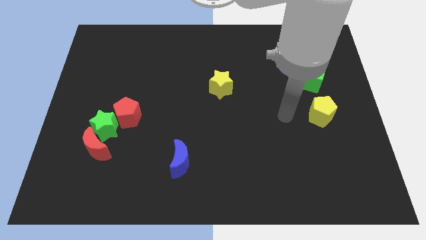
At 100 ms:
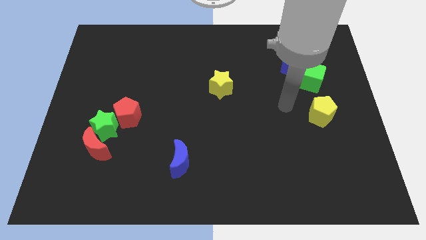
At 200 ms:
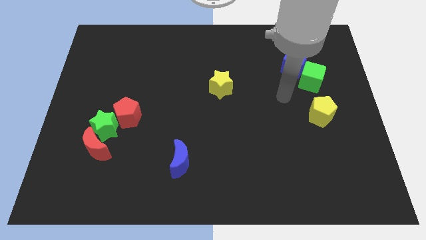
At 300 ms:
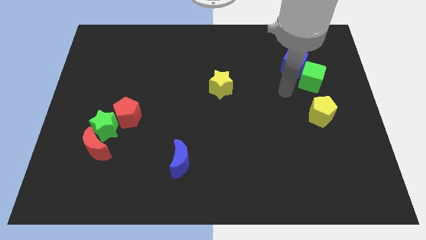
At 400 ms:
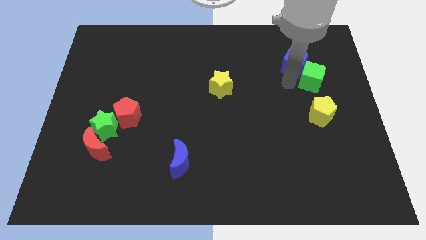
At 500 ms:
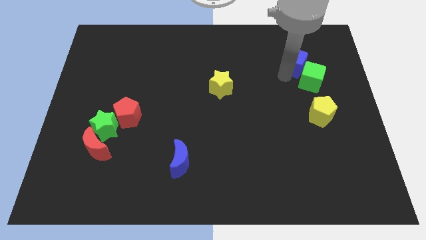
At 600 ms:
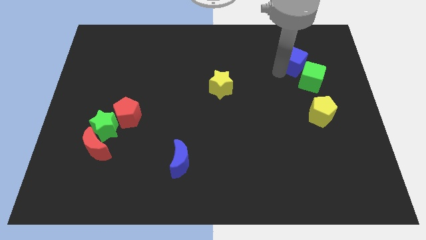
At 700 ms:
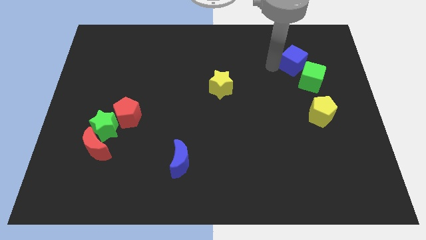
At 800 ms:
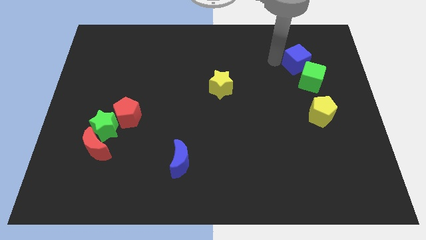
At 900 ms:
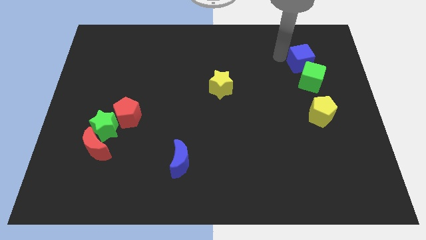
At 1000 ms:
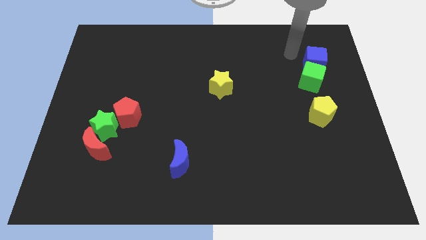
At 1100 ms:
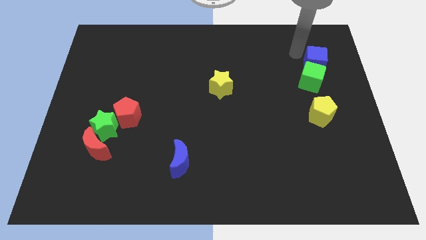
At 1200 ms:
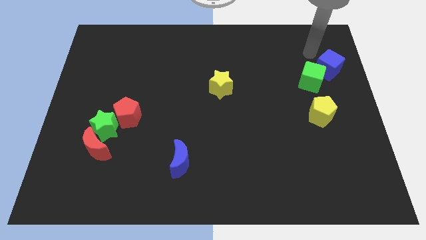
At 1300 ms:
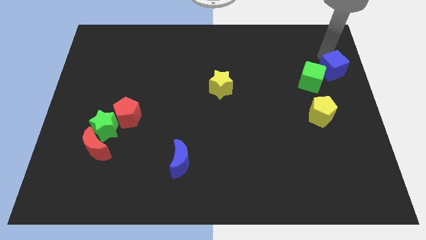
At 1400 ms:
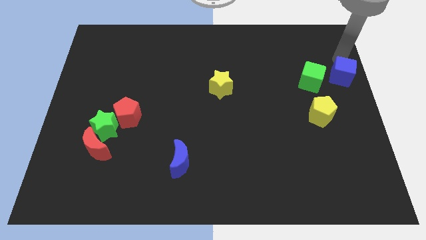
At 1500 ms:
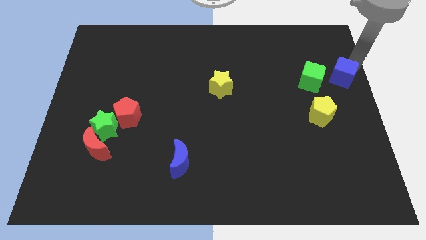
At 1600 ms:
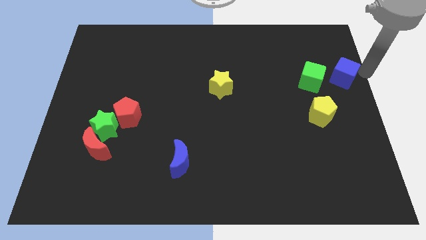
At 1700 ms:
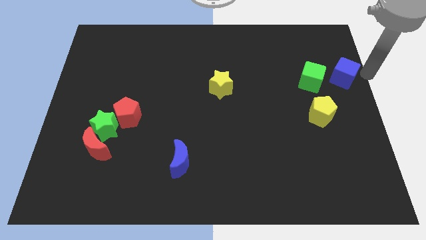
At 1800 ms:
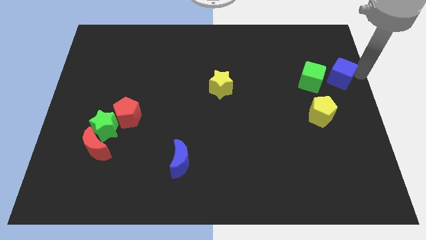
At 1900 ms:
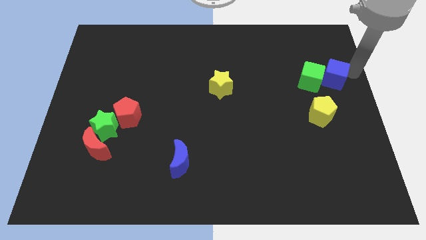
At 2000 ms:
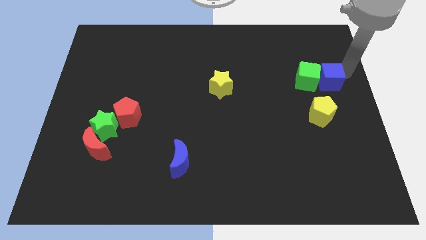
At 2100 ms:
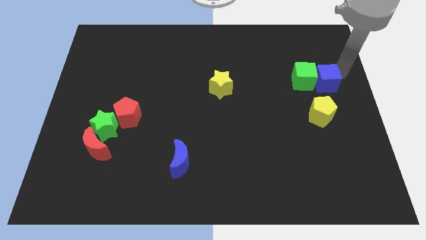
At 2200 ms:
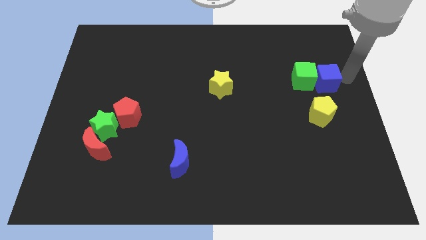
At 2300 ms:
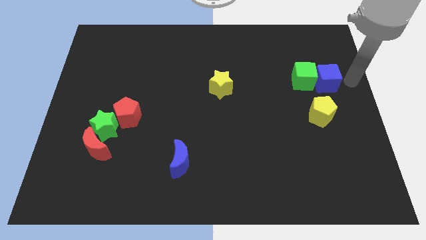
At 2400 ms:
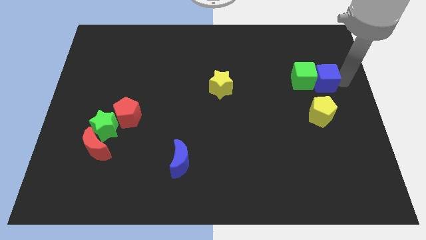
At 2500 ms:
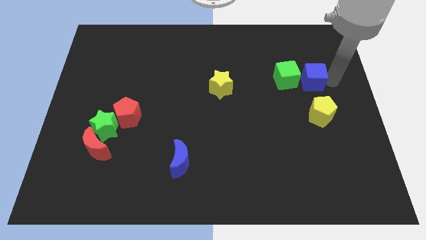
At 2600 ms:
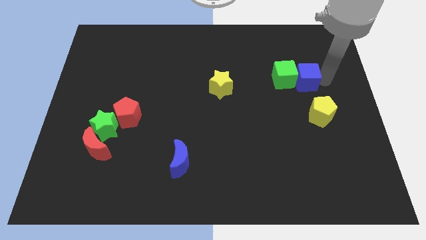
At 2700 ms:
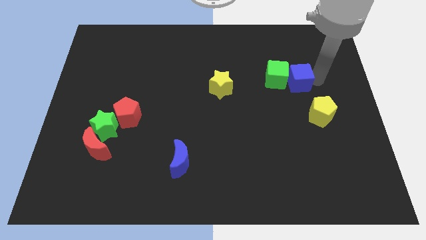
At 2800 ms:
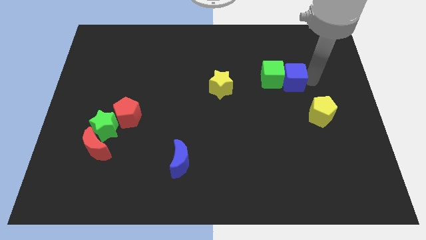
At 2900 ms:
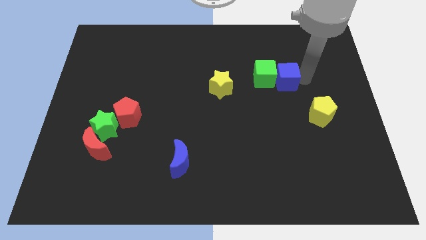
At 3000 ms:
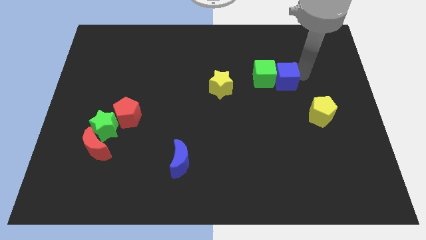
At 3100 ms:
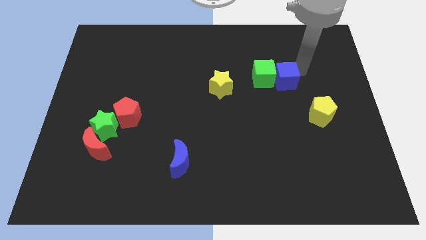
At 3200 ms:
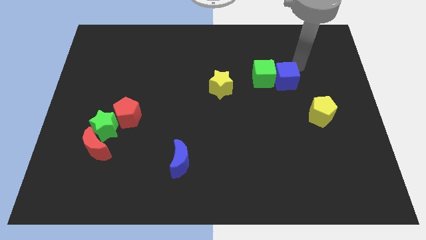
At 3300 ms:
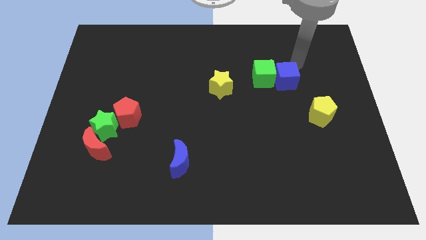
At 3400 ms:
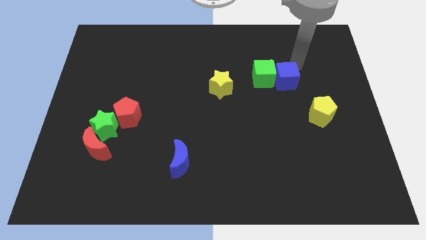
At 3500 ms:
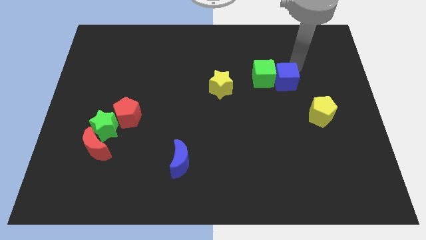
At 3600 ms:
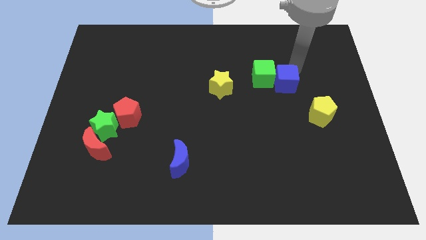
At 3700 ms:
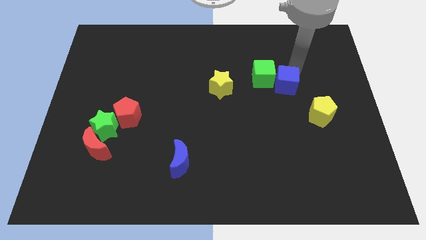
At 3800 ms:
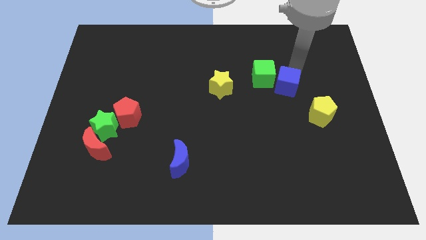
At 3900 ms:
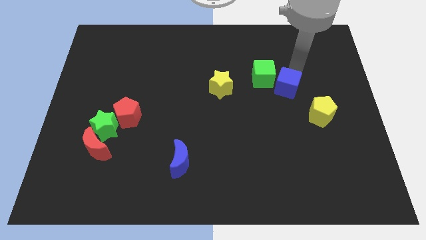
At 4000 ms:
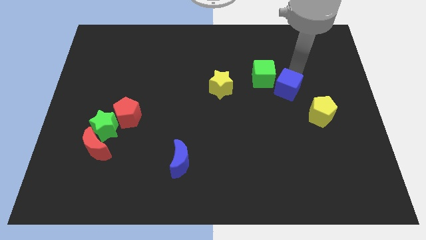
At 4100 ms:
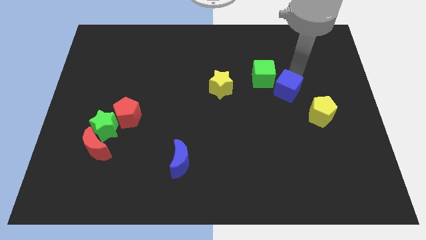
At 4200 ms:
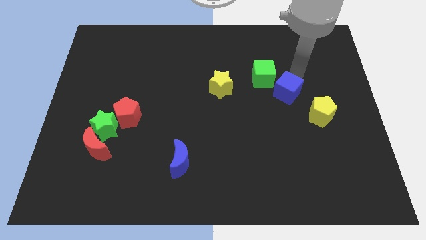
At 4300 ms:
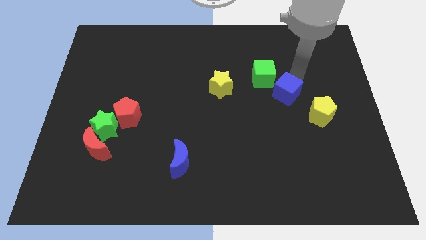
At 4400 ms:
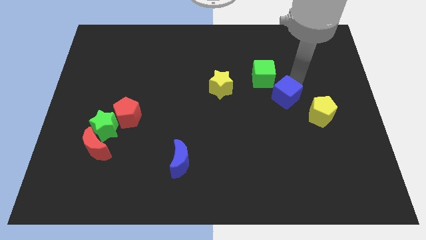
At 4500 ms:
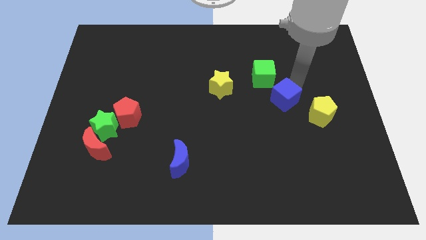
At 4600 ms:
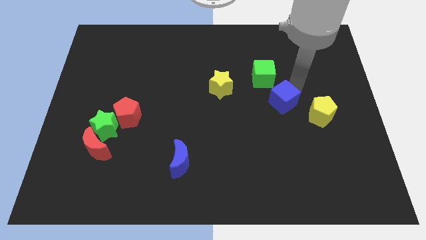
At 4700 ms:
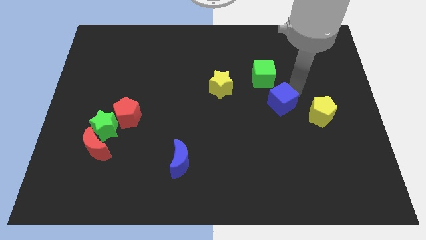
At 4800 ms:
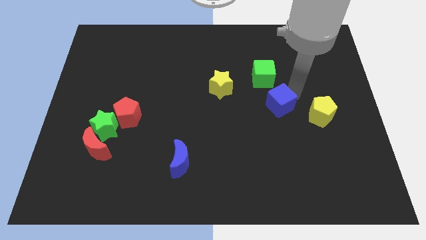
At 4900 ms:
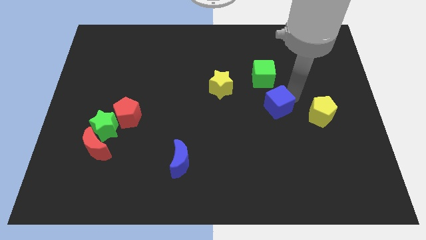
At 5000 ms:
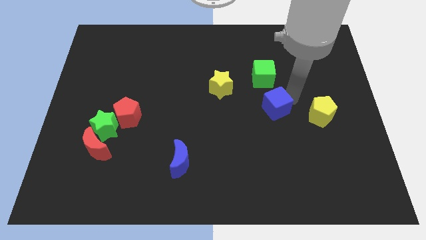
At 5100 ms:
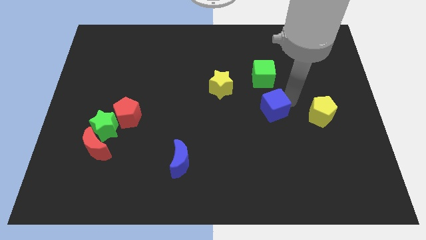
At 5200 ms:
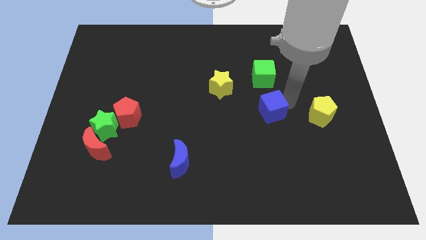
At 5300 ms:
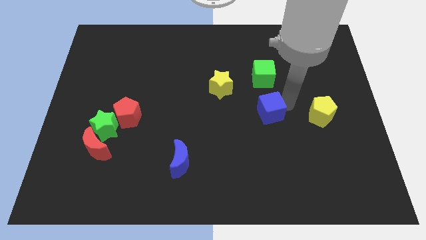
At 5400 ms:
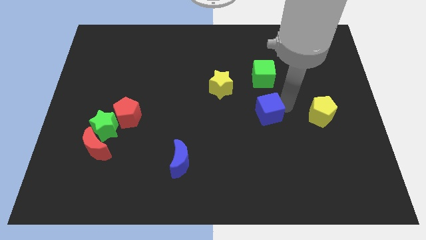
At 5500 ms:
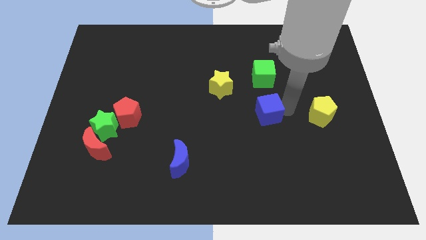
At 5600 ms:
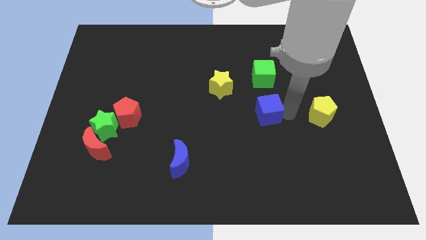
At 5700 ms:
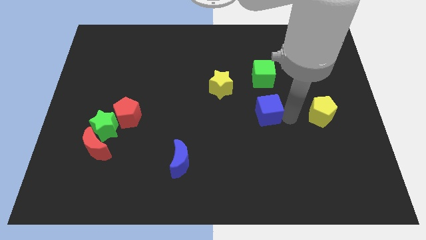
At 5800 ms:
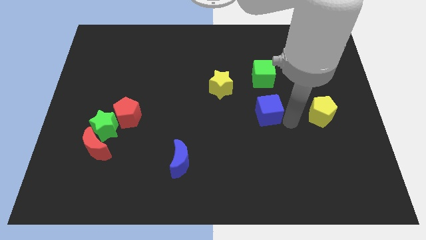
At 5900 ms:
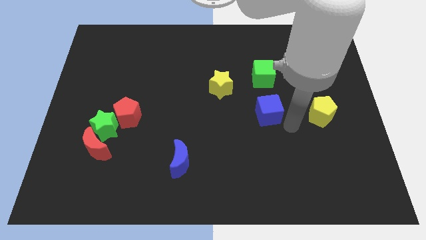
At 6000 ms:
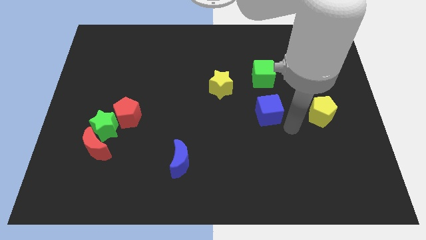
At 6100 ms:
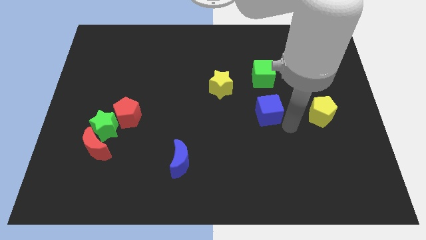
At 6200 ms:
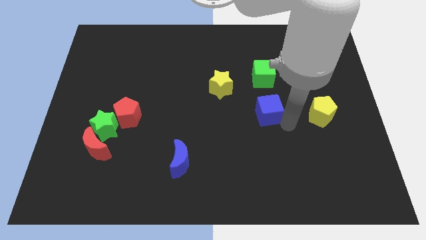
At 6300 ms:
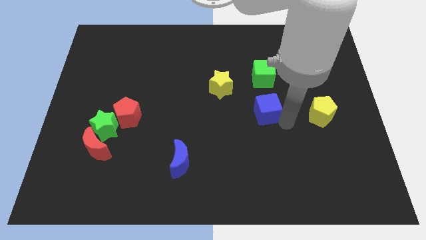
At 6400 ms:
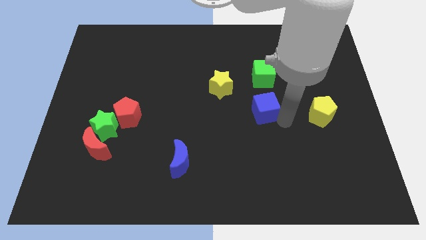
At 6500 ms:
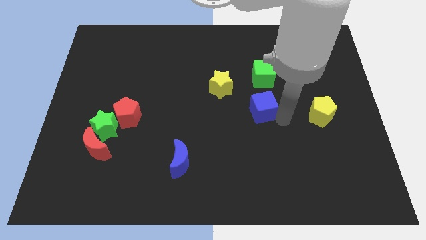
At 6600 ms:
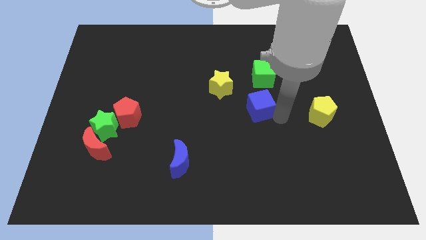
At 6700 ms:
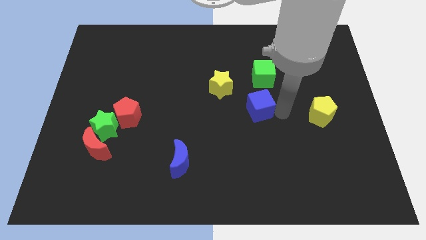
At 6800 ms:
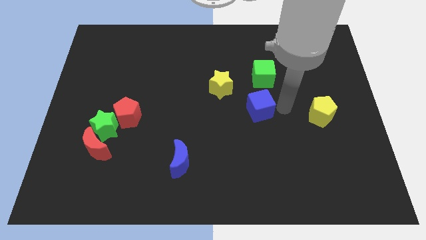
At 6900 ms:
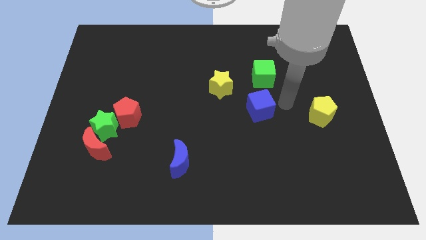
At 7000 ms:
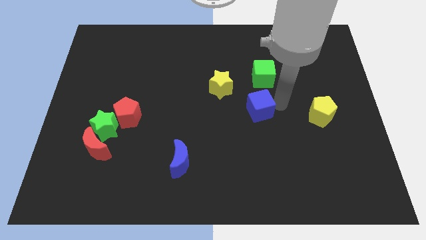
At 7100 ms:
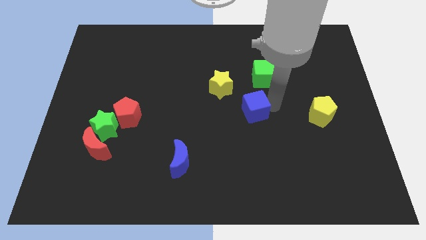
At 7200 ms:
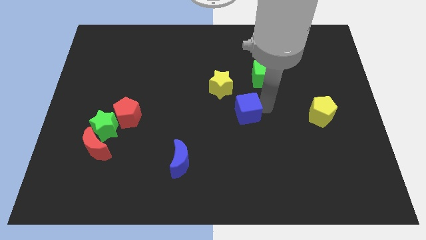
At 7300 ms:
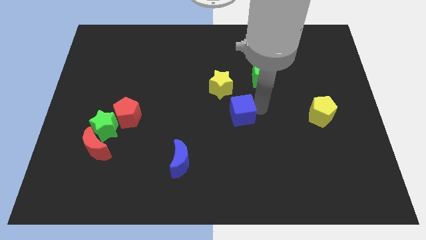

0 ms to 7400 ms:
move the blue cube down and to the left

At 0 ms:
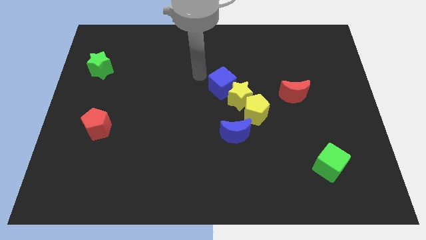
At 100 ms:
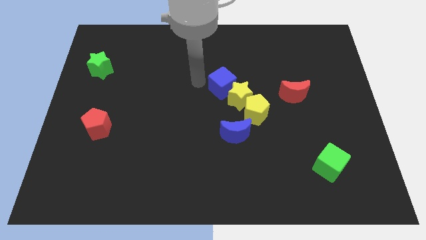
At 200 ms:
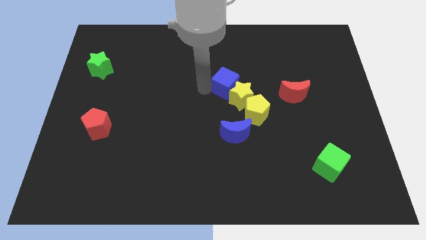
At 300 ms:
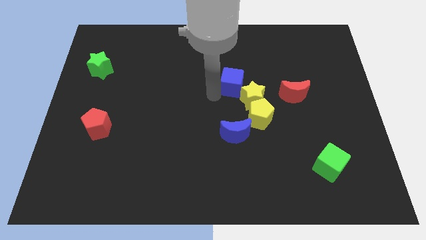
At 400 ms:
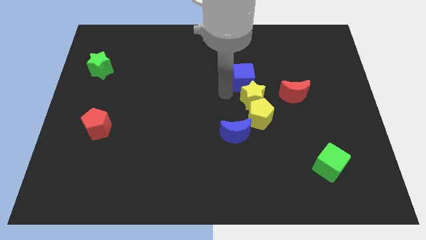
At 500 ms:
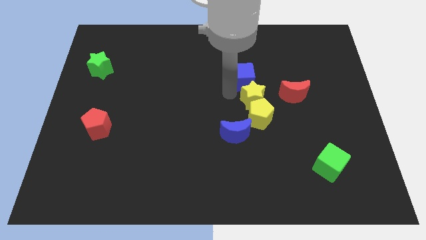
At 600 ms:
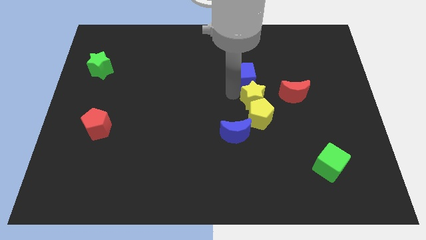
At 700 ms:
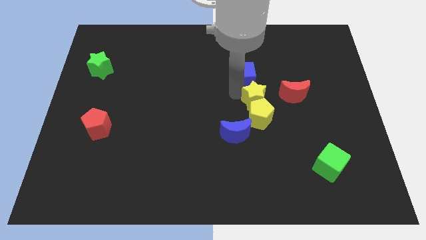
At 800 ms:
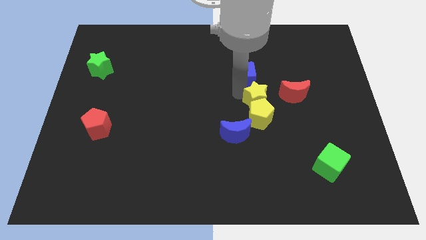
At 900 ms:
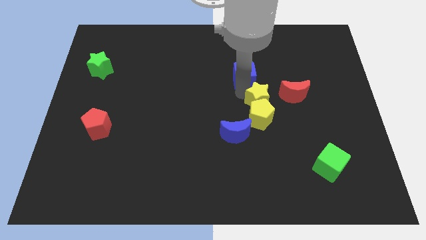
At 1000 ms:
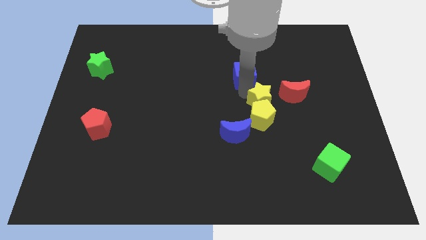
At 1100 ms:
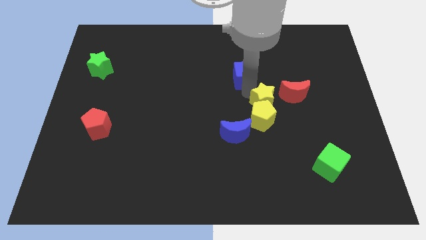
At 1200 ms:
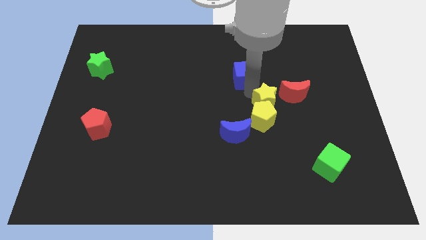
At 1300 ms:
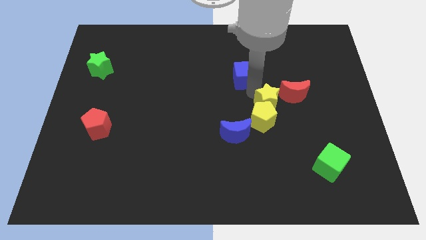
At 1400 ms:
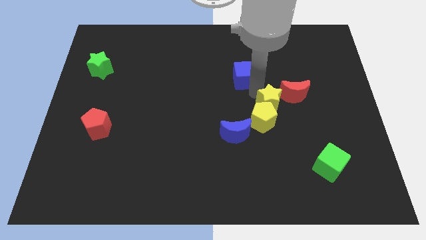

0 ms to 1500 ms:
slide the yellow star a bit to the right
